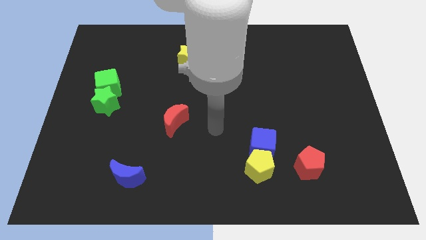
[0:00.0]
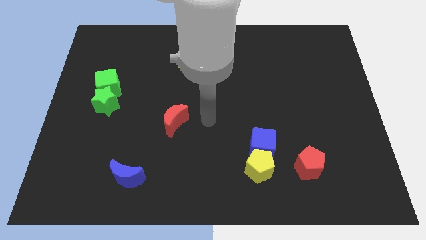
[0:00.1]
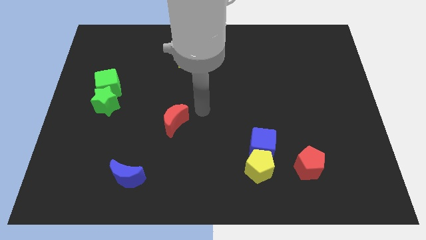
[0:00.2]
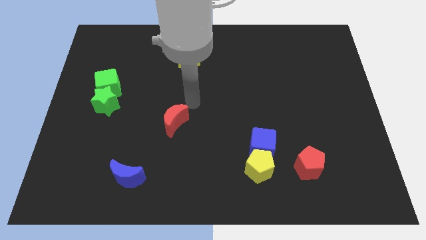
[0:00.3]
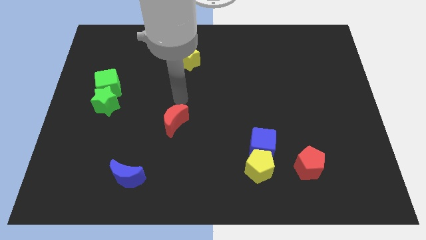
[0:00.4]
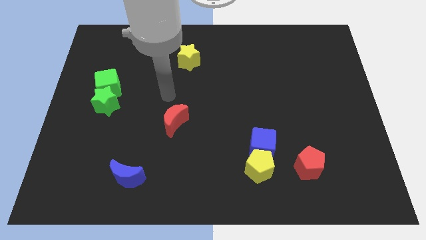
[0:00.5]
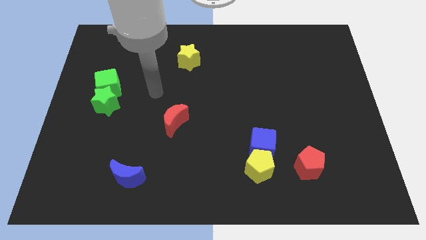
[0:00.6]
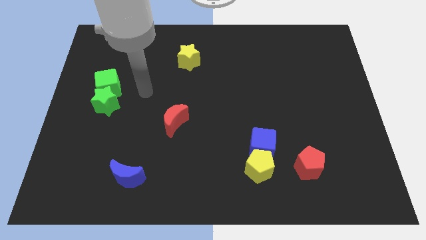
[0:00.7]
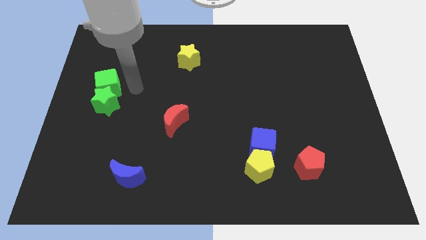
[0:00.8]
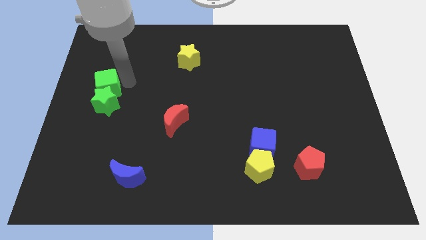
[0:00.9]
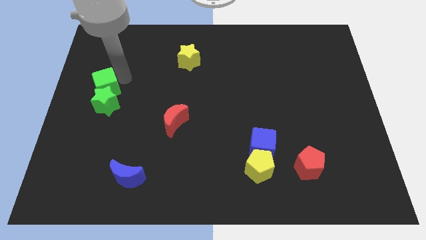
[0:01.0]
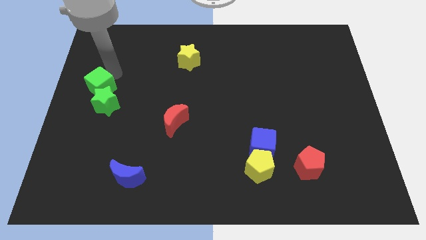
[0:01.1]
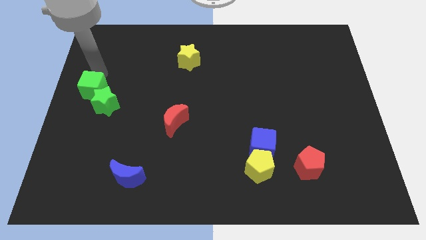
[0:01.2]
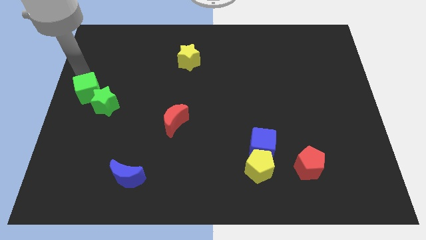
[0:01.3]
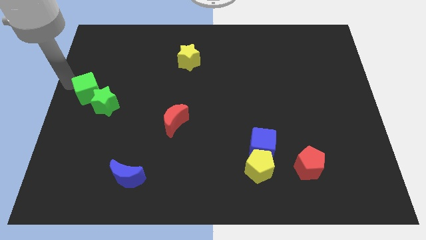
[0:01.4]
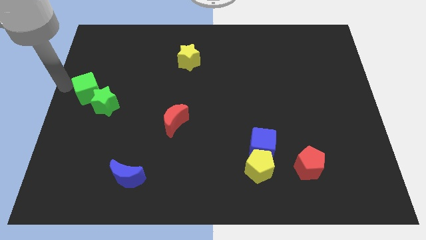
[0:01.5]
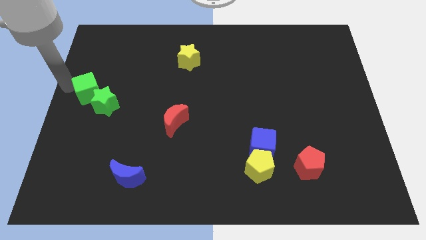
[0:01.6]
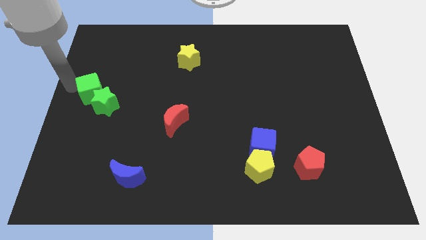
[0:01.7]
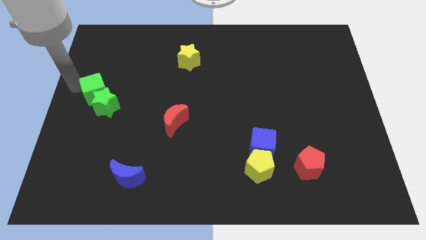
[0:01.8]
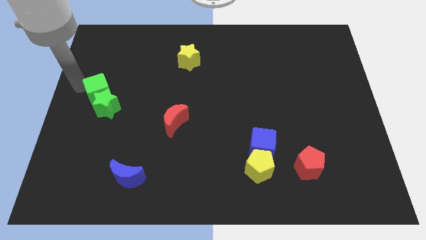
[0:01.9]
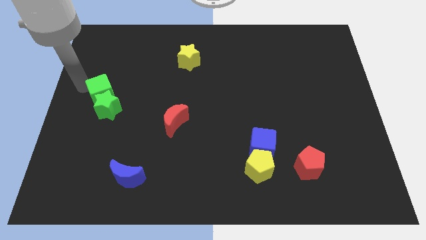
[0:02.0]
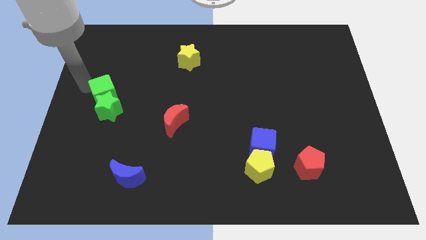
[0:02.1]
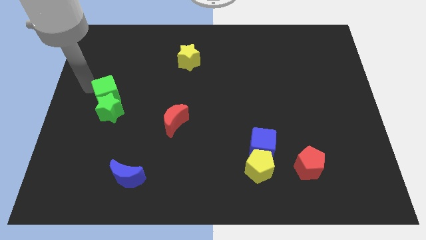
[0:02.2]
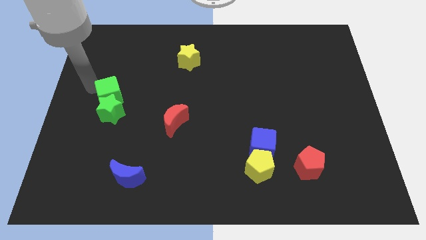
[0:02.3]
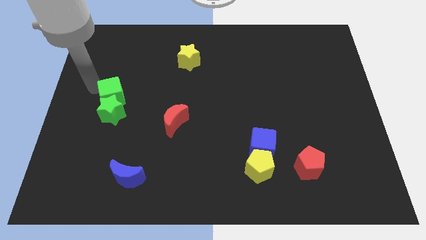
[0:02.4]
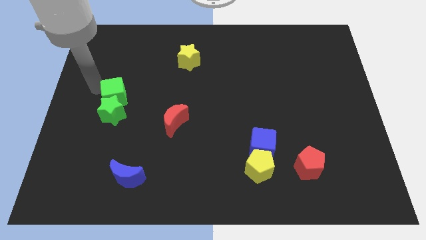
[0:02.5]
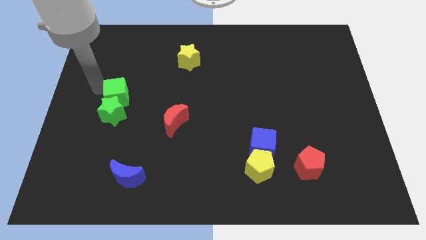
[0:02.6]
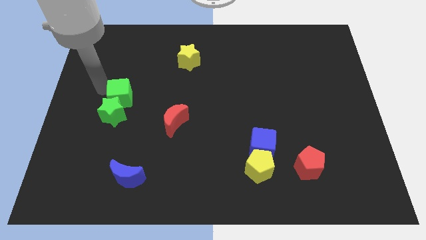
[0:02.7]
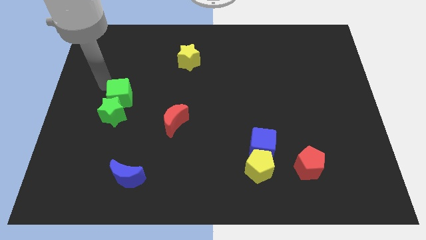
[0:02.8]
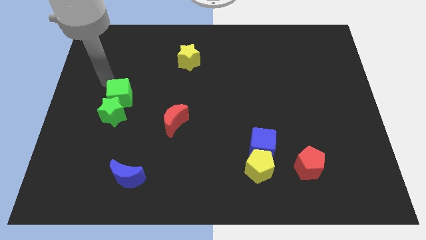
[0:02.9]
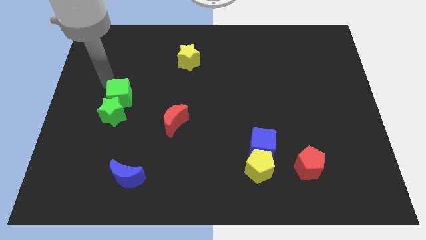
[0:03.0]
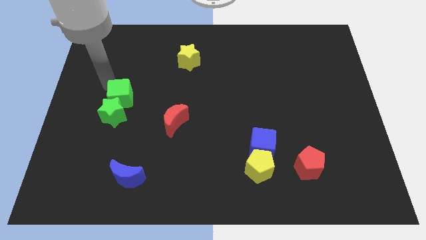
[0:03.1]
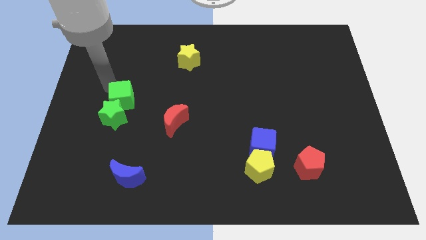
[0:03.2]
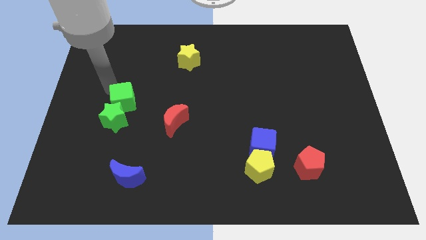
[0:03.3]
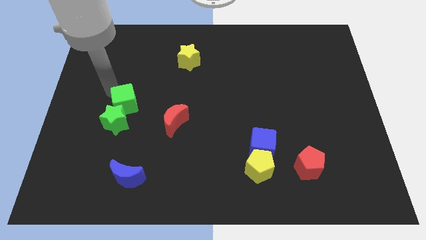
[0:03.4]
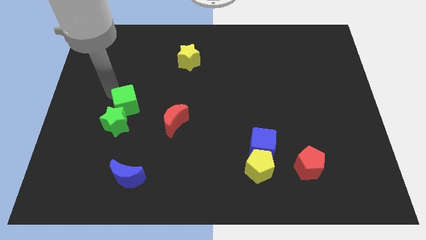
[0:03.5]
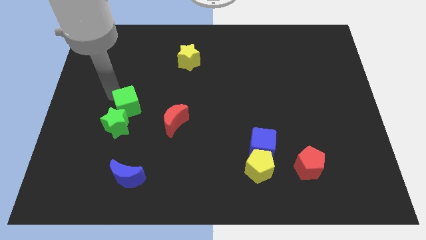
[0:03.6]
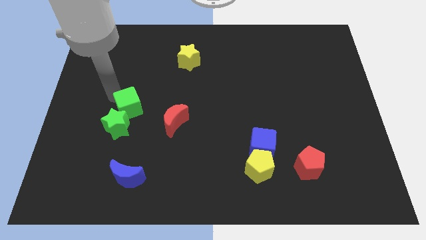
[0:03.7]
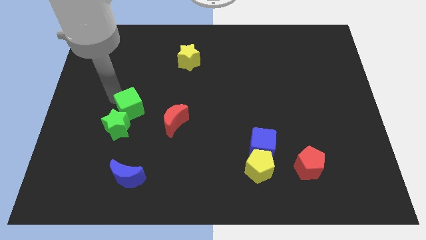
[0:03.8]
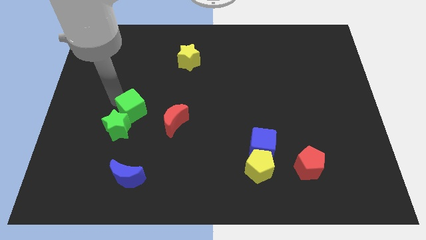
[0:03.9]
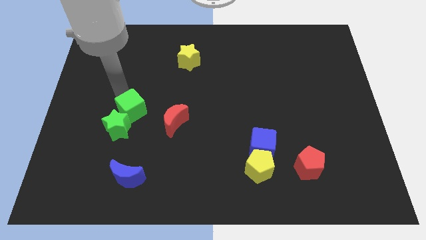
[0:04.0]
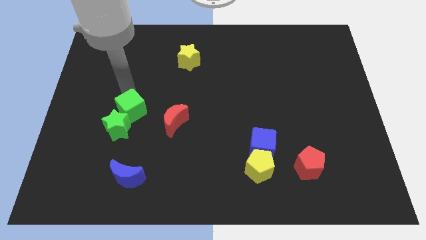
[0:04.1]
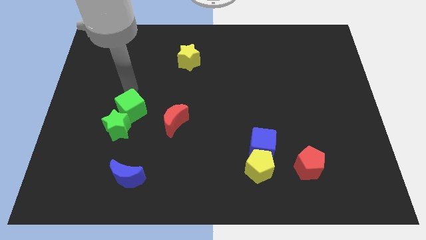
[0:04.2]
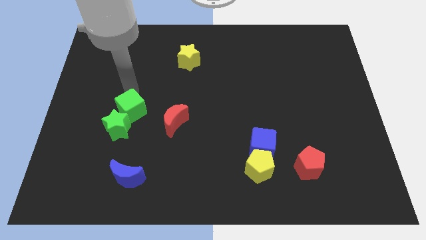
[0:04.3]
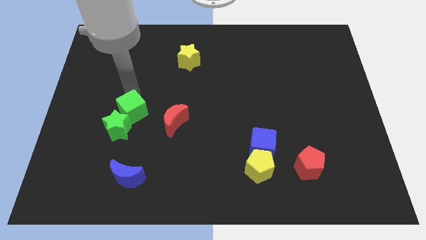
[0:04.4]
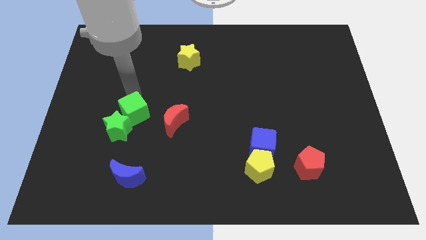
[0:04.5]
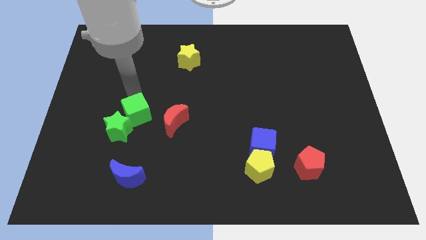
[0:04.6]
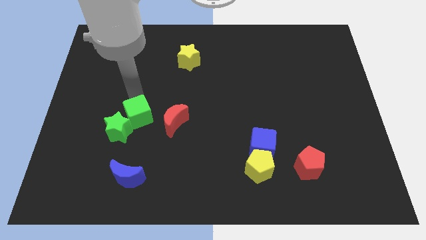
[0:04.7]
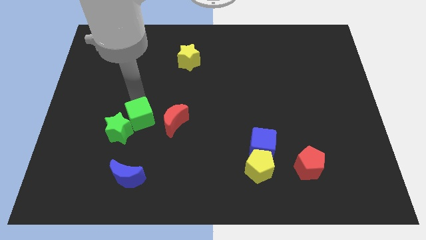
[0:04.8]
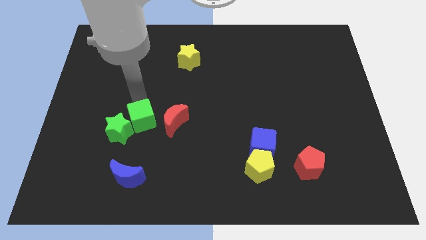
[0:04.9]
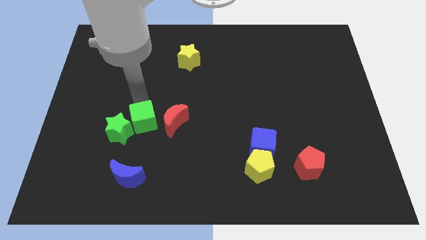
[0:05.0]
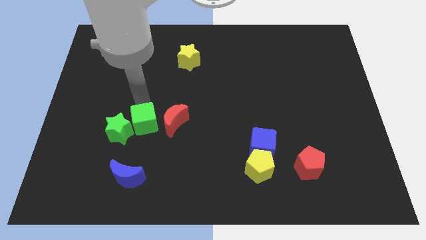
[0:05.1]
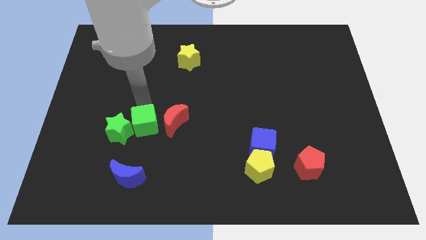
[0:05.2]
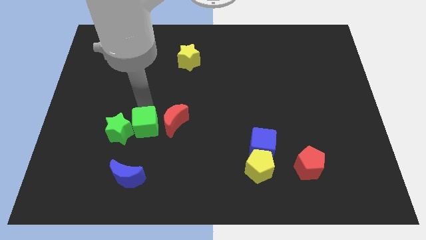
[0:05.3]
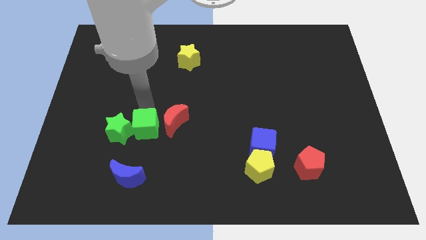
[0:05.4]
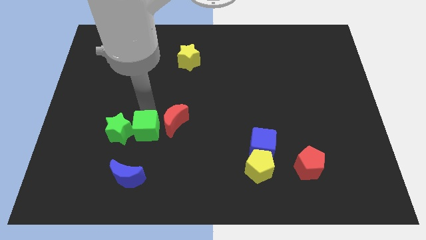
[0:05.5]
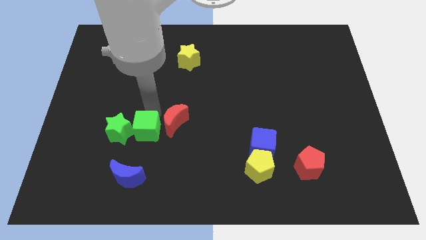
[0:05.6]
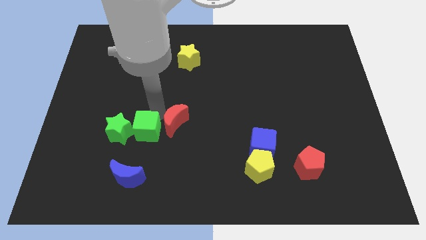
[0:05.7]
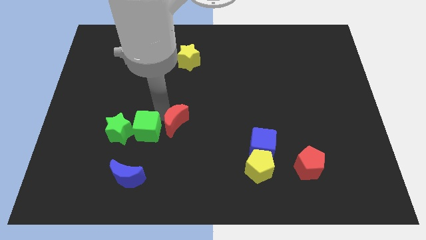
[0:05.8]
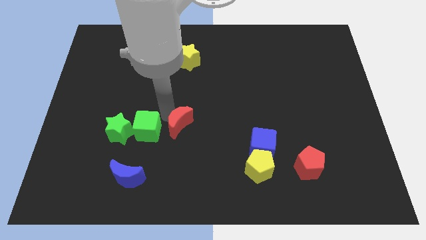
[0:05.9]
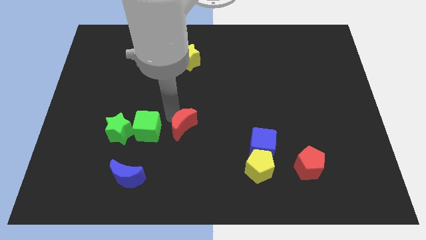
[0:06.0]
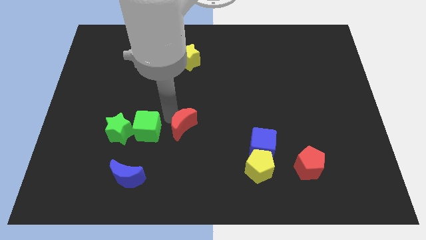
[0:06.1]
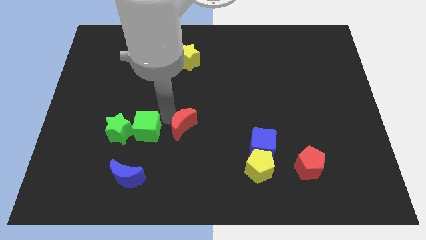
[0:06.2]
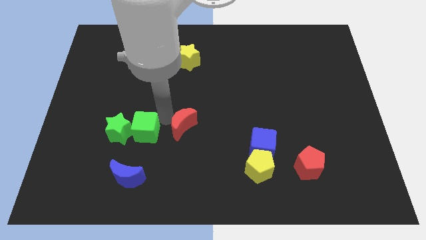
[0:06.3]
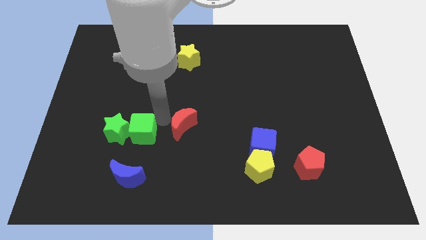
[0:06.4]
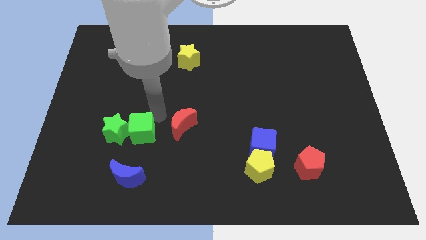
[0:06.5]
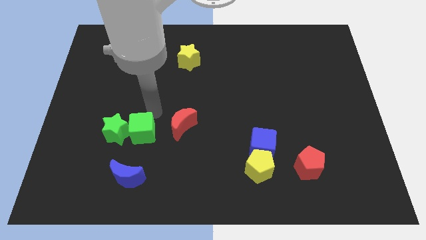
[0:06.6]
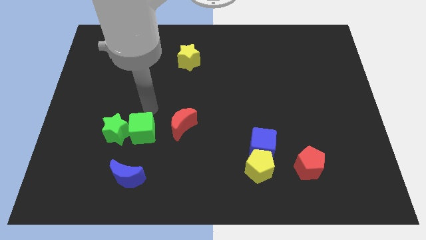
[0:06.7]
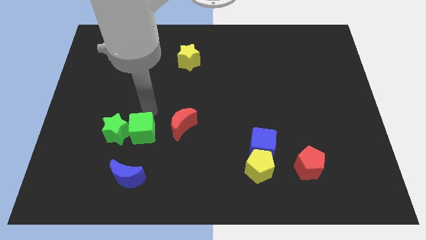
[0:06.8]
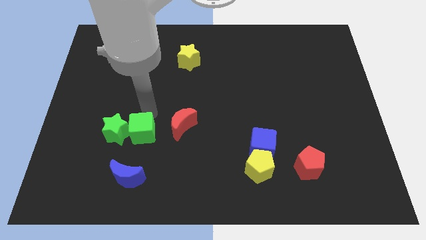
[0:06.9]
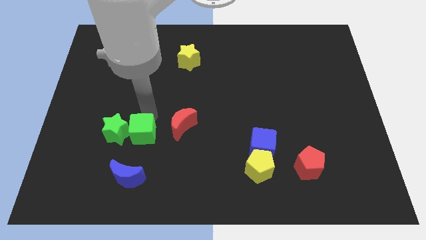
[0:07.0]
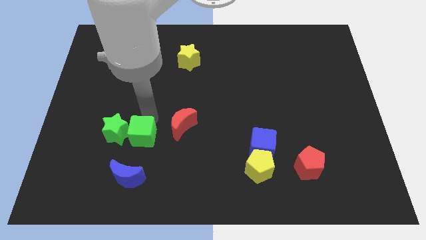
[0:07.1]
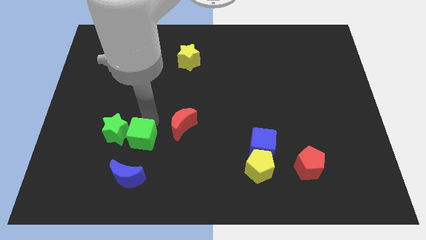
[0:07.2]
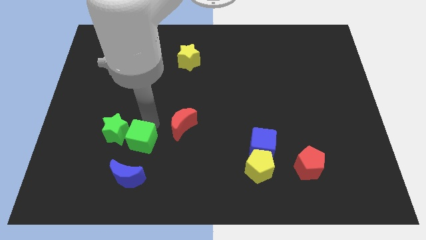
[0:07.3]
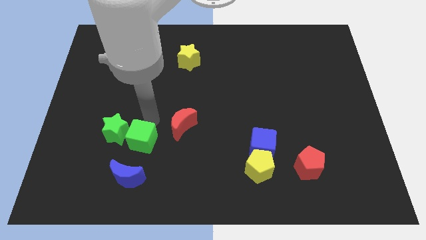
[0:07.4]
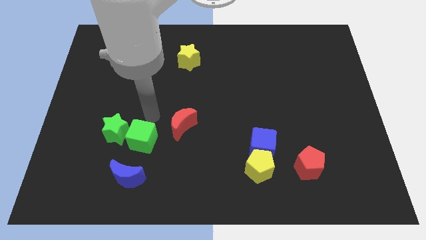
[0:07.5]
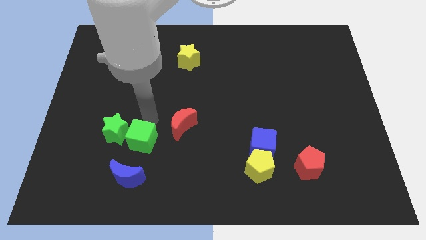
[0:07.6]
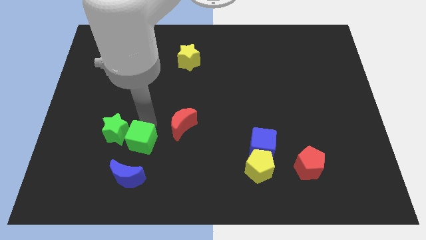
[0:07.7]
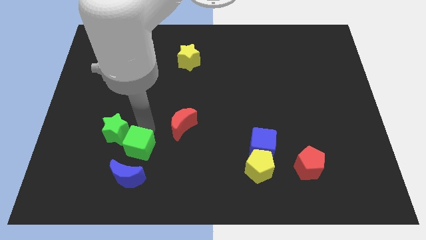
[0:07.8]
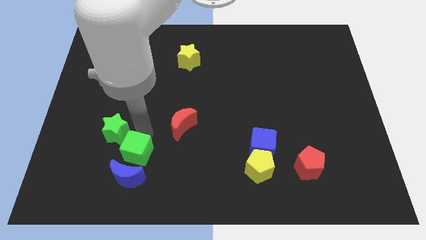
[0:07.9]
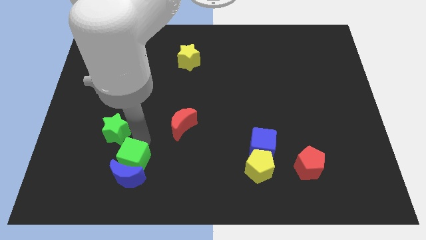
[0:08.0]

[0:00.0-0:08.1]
slide the green cube next to the blue moon
